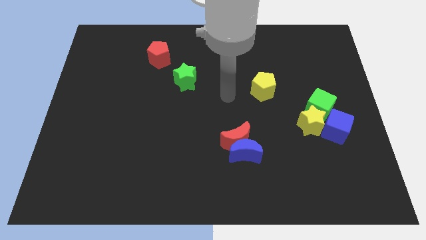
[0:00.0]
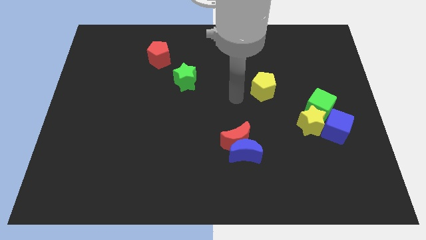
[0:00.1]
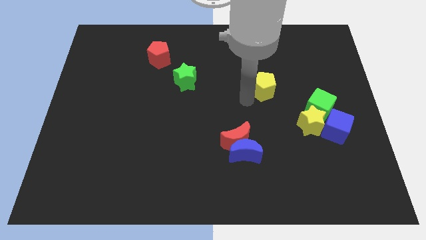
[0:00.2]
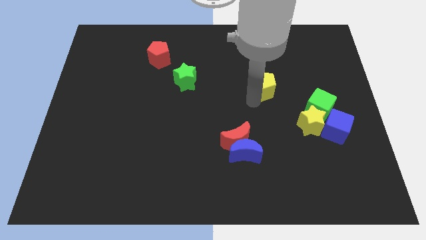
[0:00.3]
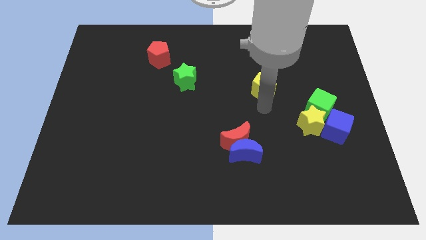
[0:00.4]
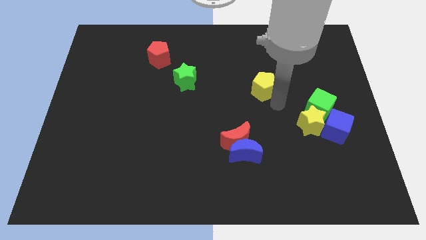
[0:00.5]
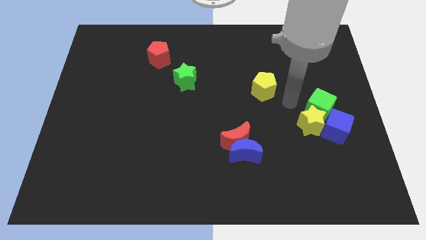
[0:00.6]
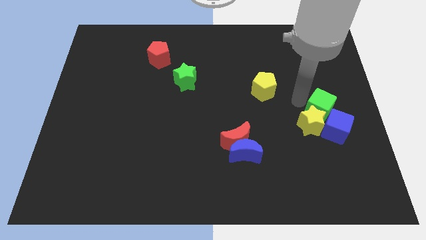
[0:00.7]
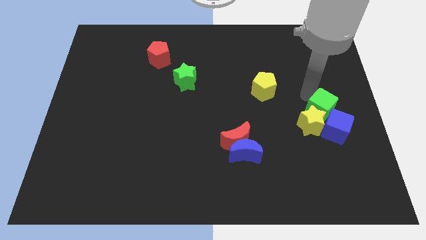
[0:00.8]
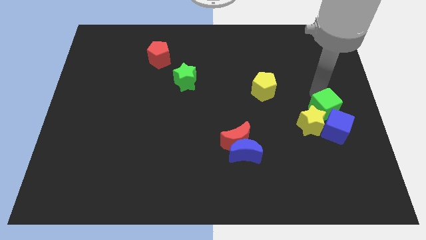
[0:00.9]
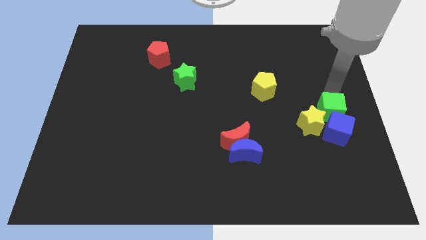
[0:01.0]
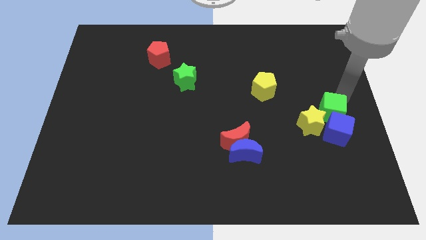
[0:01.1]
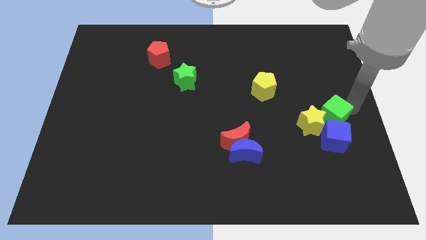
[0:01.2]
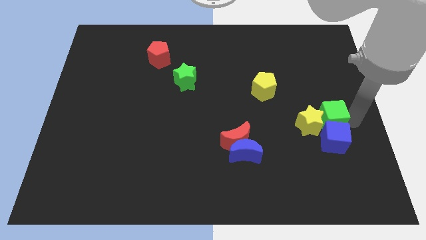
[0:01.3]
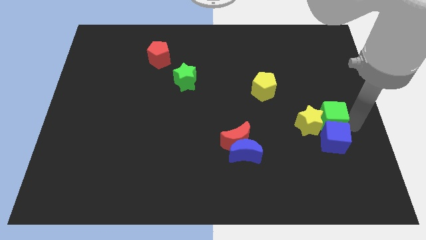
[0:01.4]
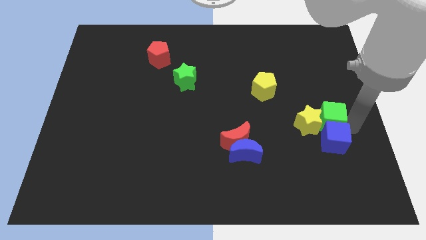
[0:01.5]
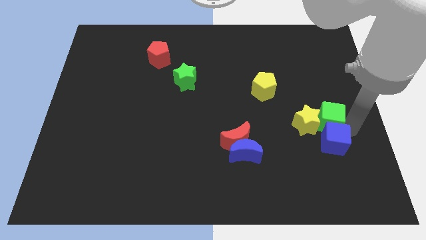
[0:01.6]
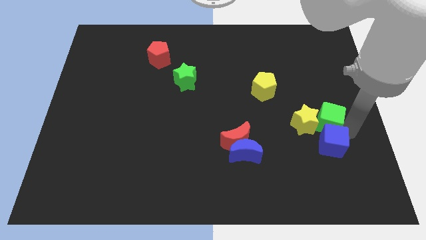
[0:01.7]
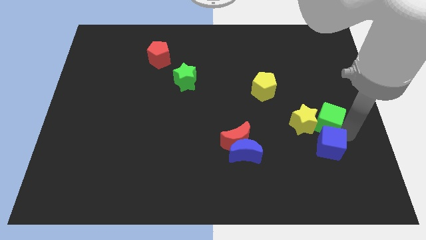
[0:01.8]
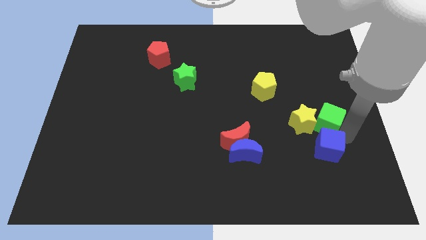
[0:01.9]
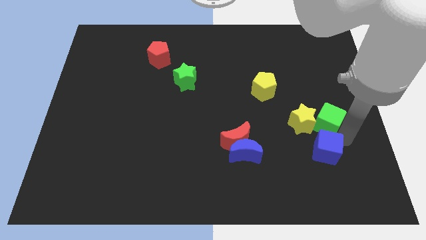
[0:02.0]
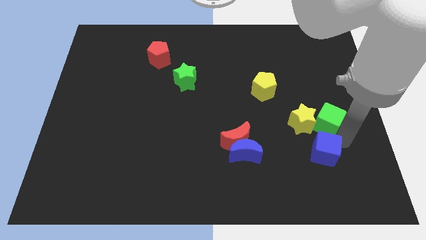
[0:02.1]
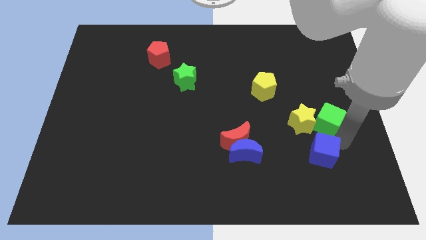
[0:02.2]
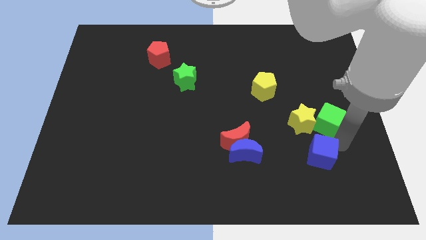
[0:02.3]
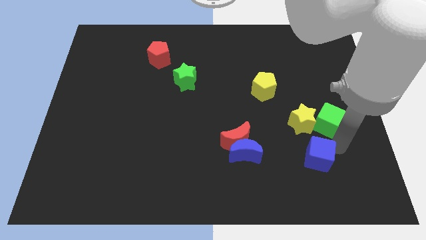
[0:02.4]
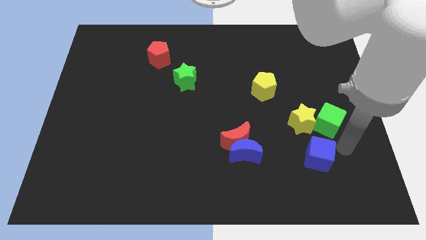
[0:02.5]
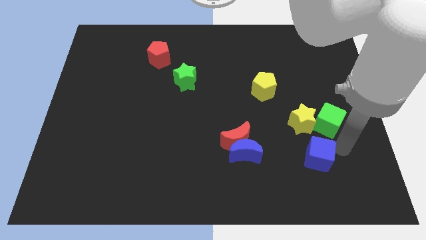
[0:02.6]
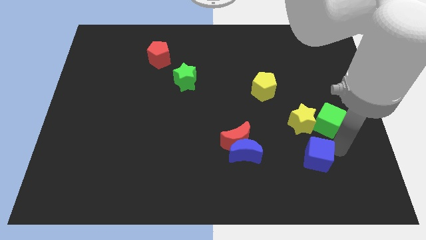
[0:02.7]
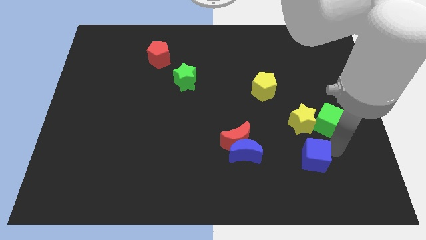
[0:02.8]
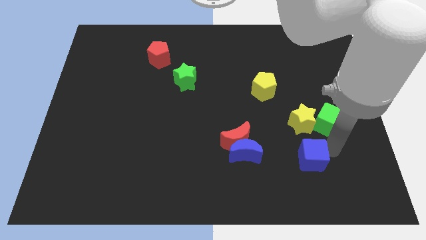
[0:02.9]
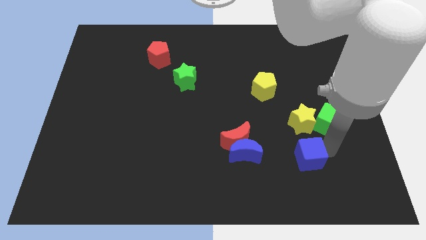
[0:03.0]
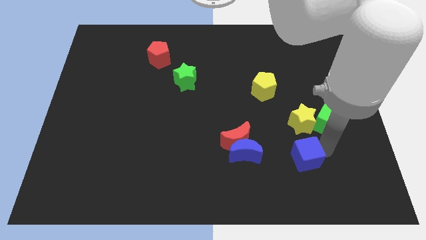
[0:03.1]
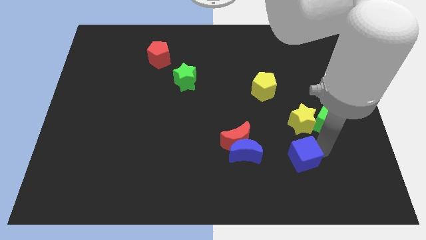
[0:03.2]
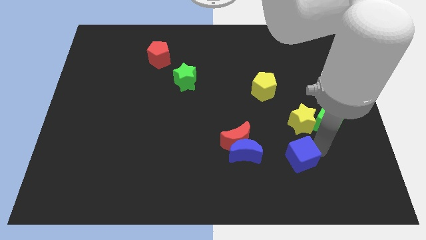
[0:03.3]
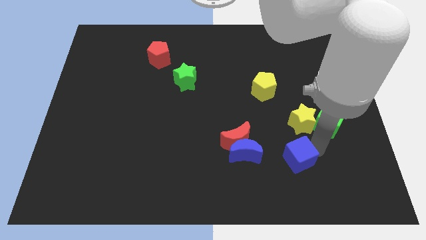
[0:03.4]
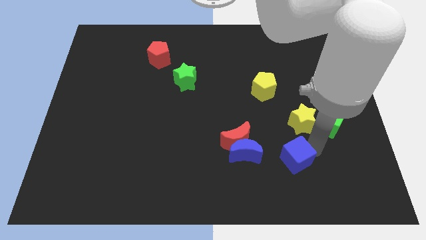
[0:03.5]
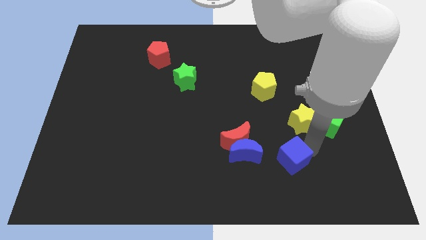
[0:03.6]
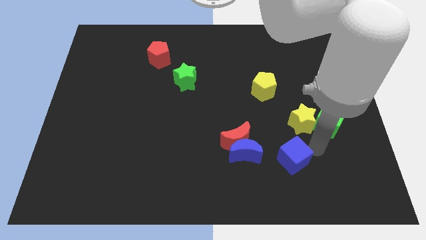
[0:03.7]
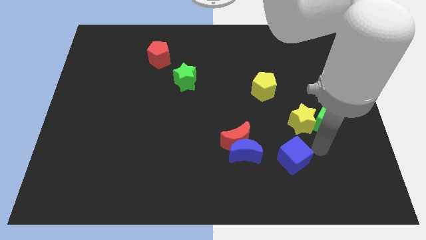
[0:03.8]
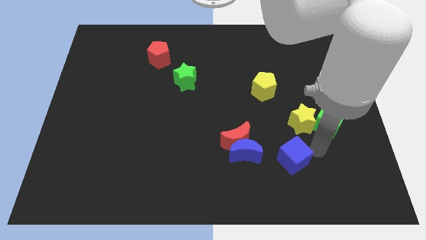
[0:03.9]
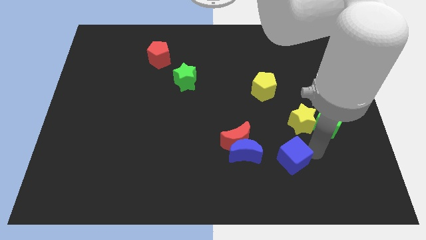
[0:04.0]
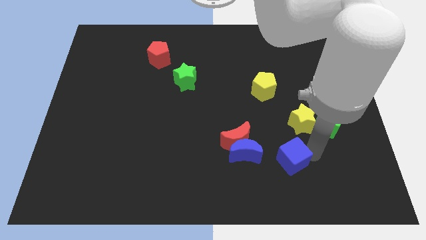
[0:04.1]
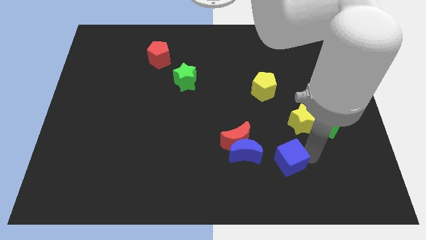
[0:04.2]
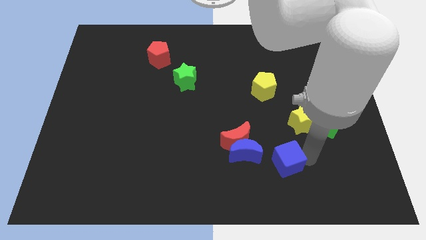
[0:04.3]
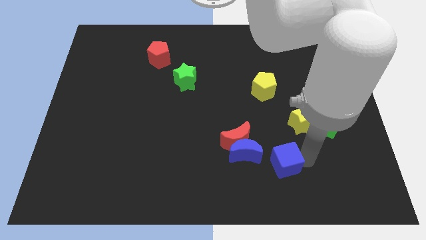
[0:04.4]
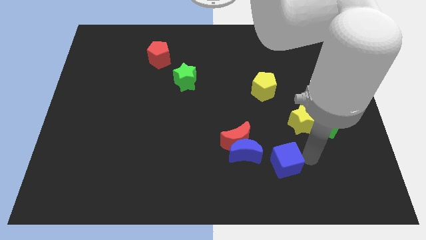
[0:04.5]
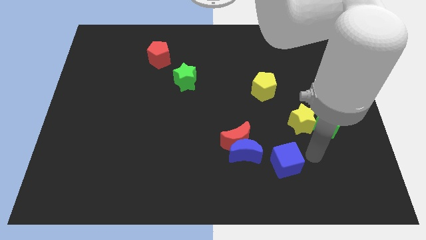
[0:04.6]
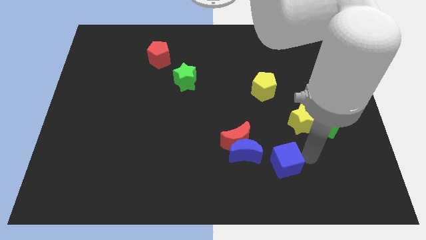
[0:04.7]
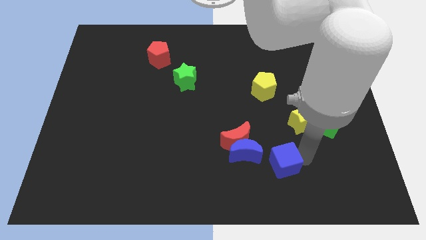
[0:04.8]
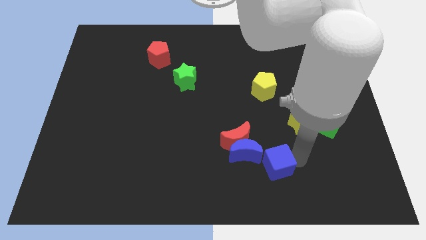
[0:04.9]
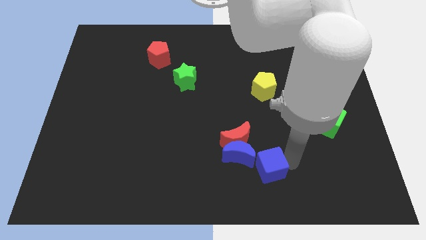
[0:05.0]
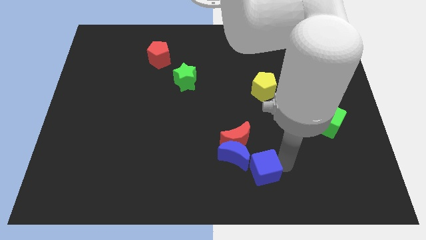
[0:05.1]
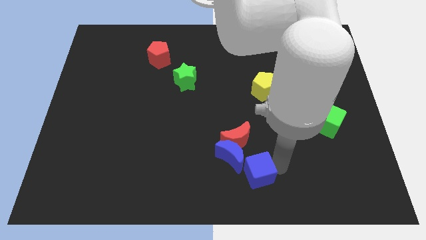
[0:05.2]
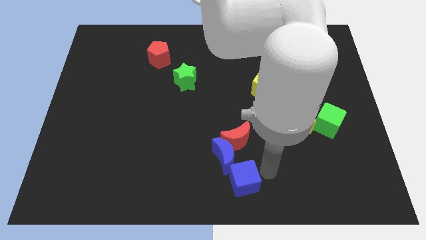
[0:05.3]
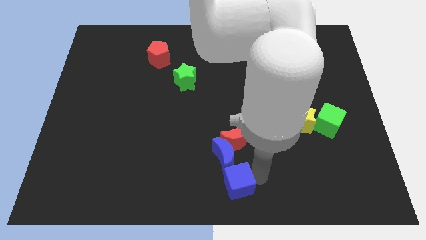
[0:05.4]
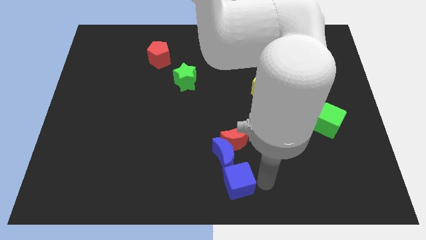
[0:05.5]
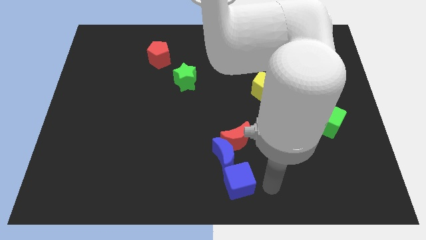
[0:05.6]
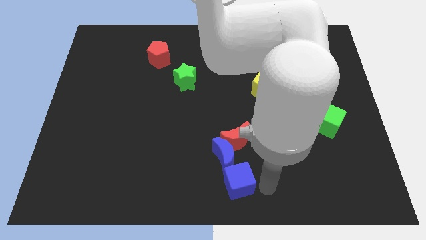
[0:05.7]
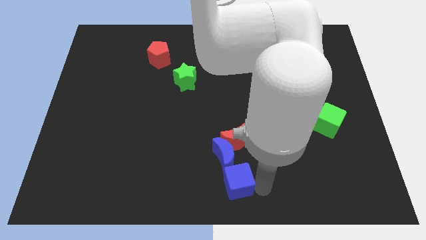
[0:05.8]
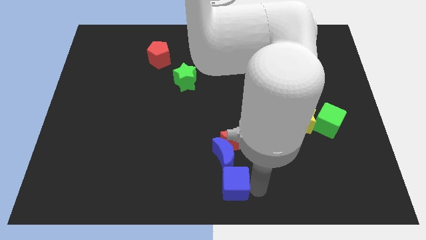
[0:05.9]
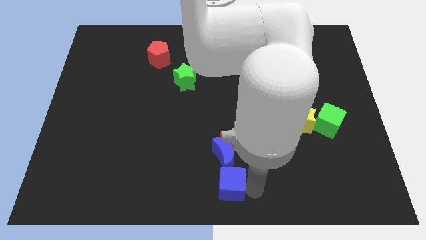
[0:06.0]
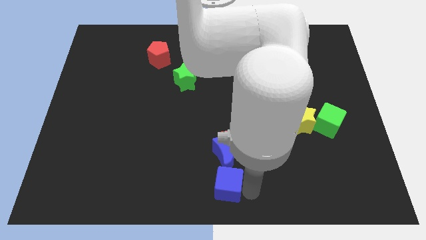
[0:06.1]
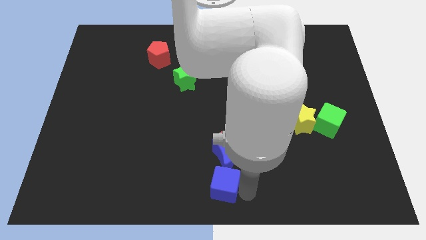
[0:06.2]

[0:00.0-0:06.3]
put the blue cube diagonally down and to the left of the blue moon

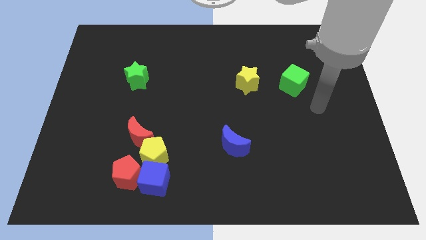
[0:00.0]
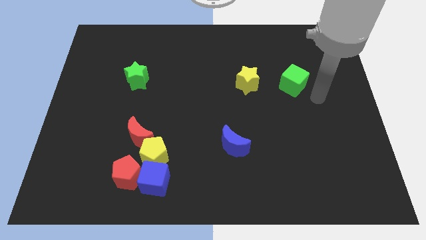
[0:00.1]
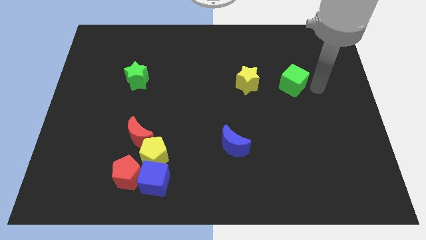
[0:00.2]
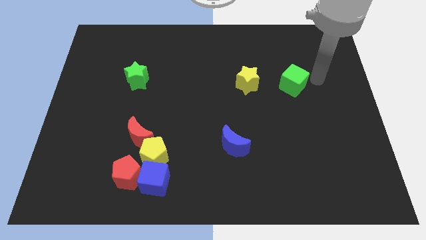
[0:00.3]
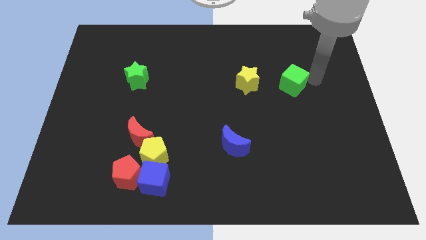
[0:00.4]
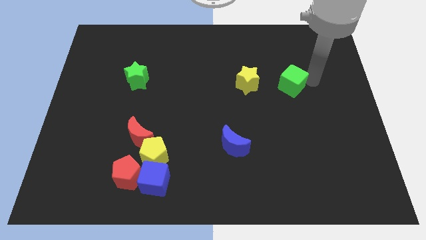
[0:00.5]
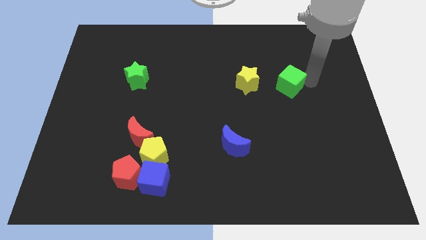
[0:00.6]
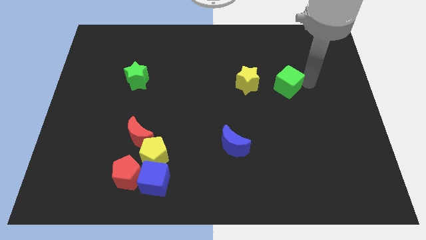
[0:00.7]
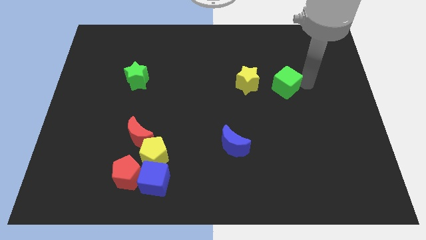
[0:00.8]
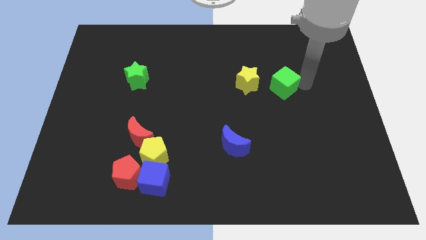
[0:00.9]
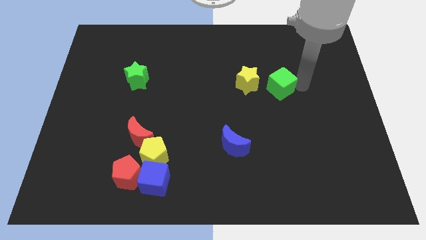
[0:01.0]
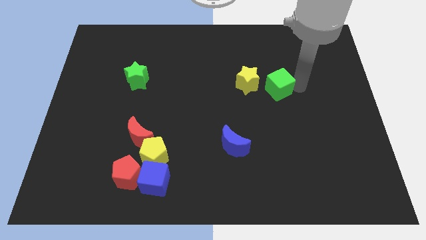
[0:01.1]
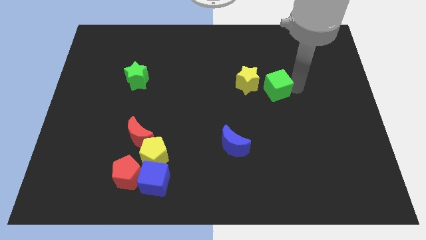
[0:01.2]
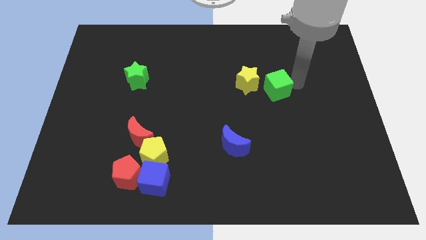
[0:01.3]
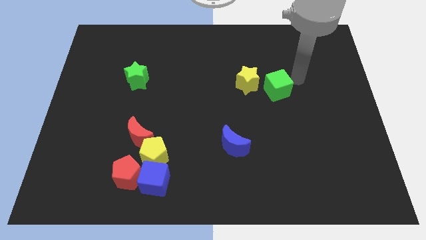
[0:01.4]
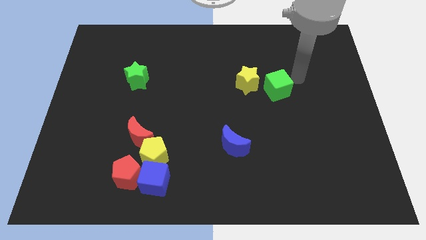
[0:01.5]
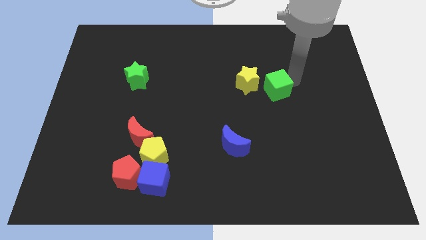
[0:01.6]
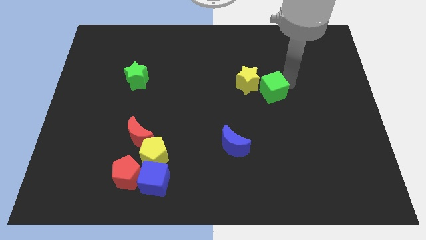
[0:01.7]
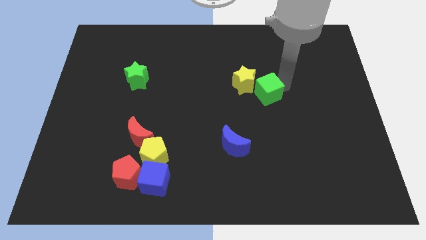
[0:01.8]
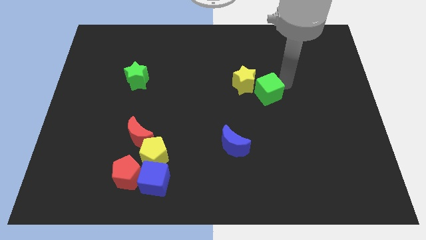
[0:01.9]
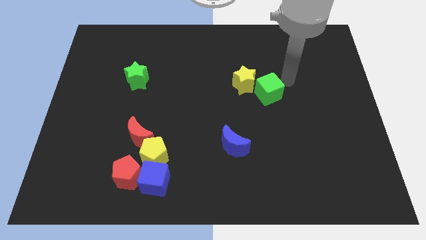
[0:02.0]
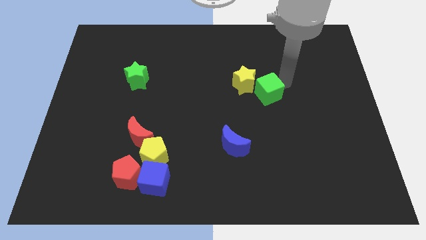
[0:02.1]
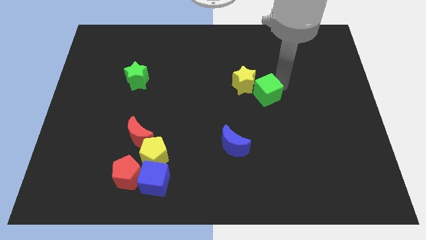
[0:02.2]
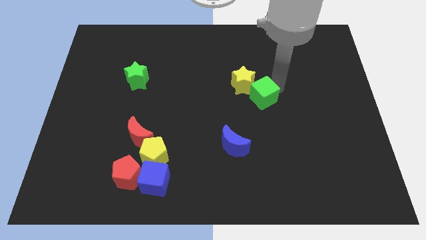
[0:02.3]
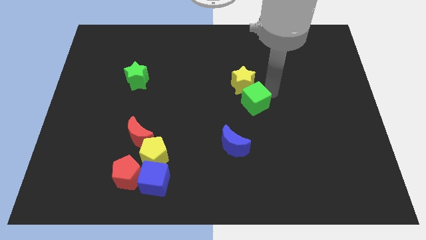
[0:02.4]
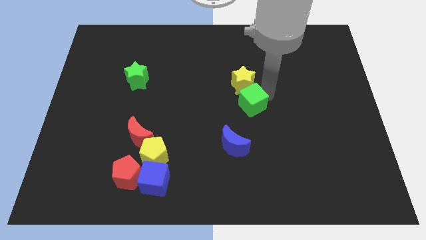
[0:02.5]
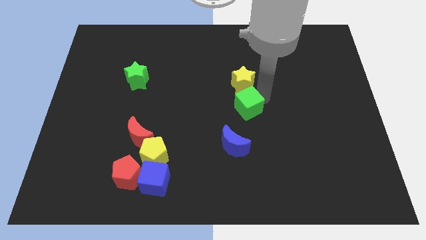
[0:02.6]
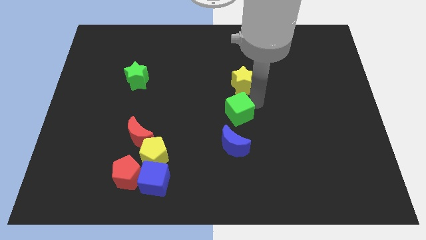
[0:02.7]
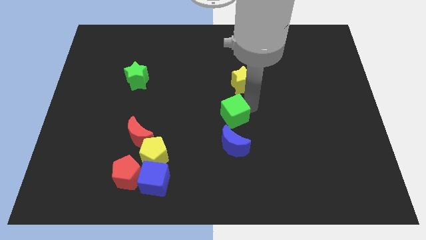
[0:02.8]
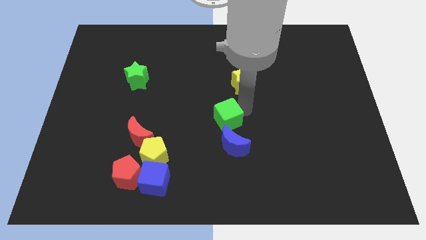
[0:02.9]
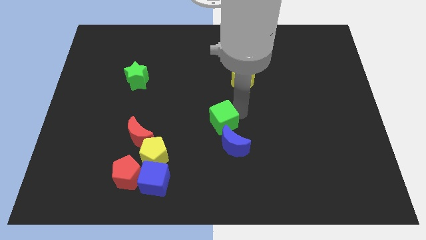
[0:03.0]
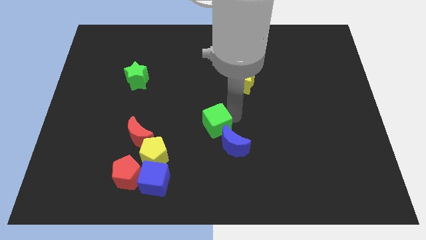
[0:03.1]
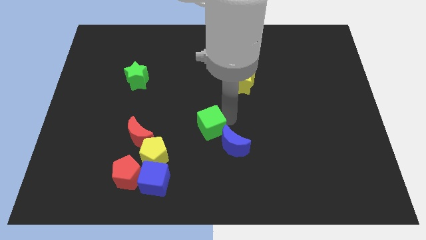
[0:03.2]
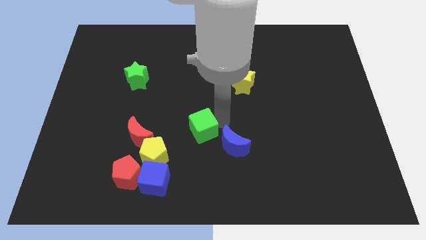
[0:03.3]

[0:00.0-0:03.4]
push the green cube to the right side of the red moon
